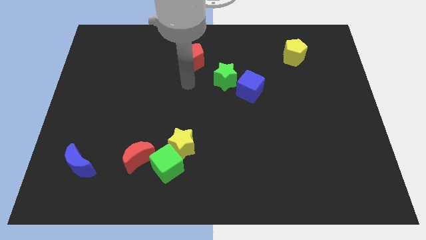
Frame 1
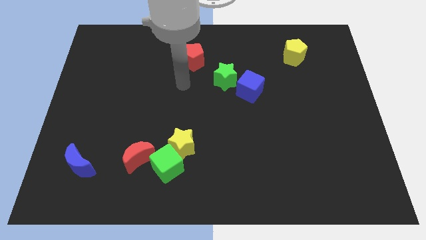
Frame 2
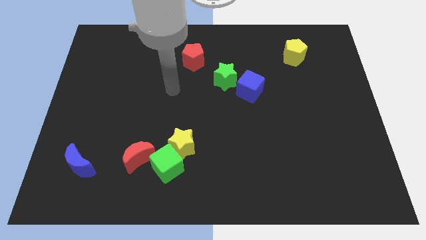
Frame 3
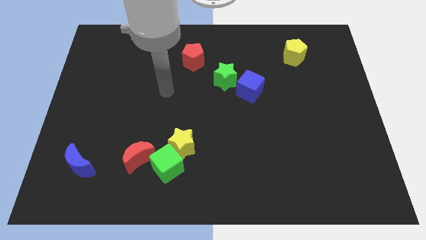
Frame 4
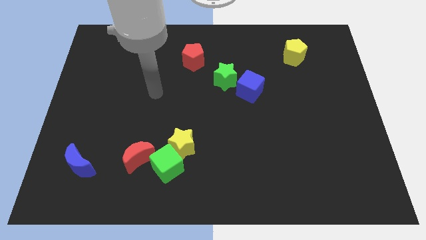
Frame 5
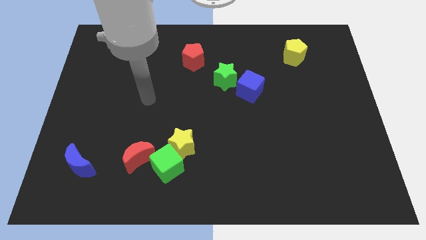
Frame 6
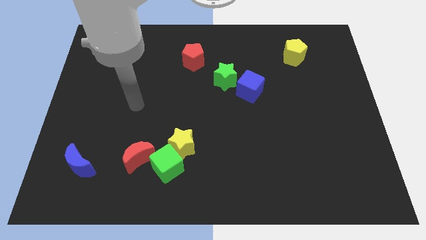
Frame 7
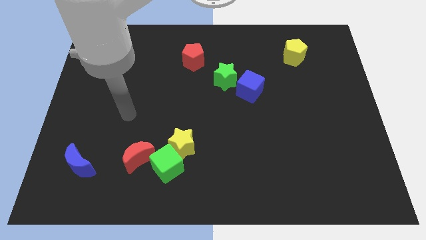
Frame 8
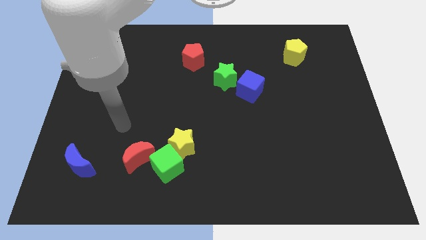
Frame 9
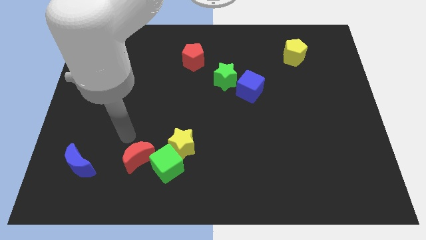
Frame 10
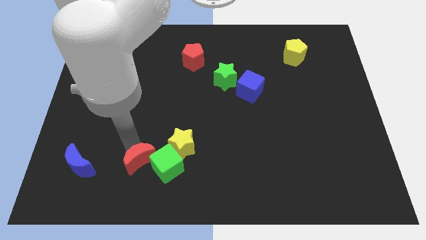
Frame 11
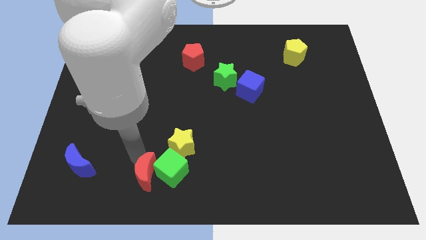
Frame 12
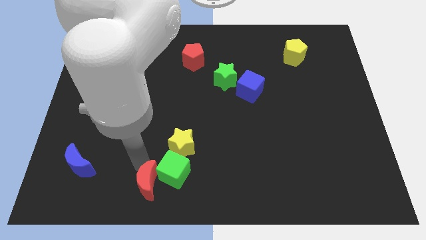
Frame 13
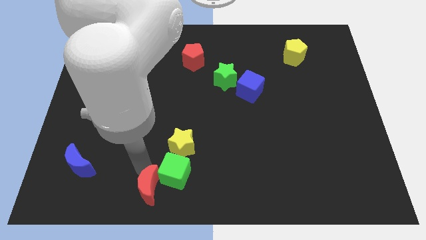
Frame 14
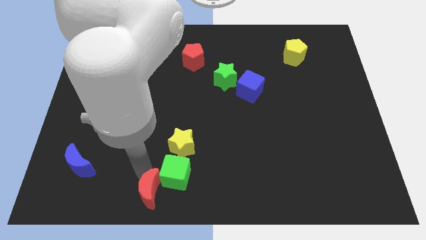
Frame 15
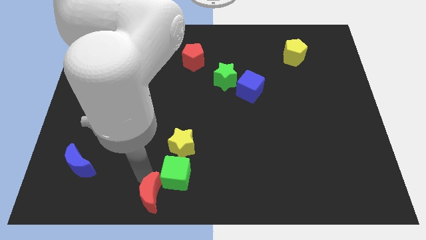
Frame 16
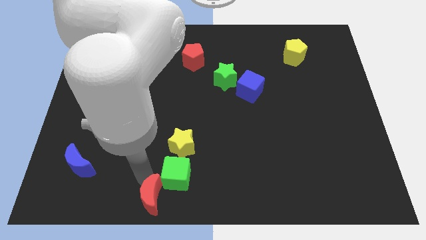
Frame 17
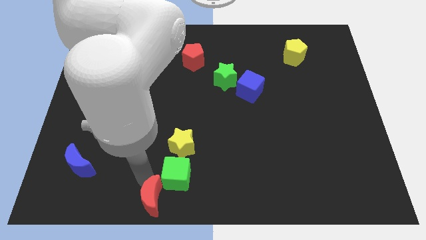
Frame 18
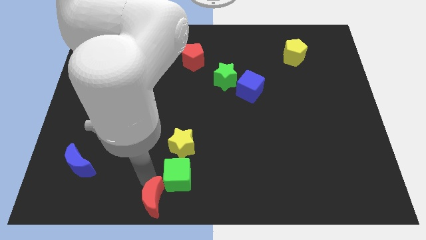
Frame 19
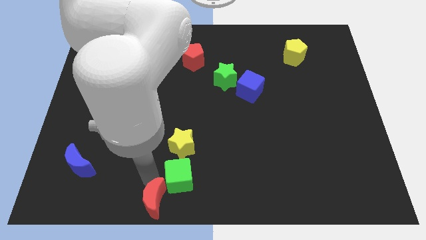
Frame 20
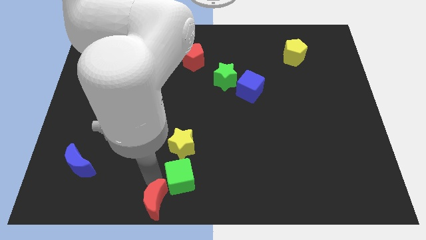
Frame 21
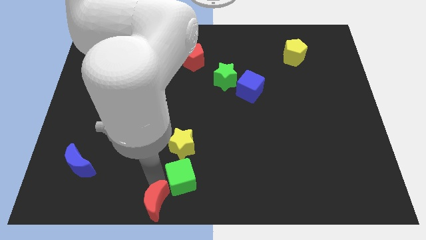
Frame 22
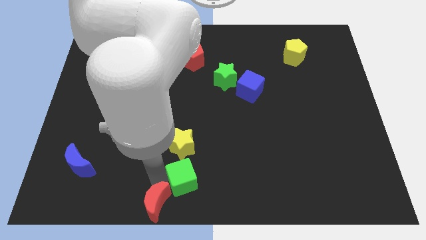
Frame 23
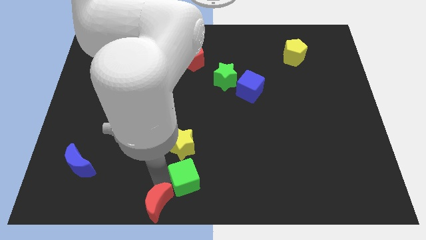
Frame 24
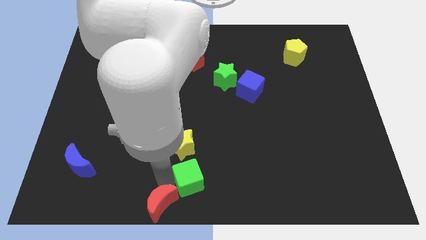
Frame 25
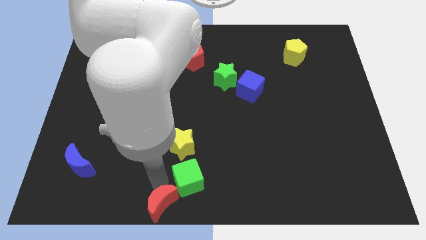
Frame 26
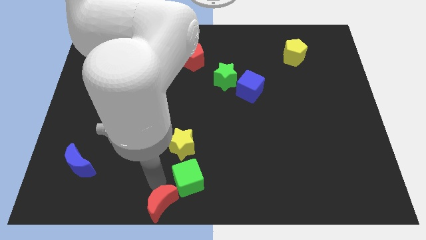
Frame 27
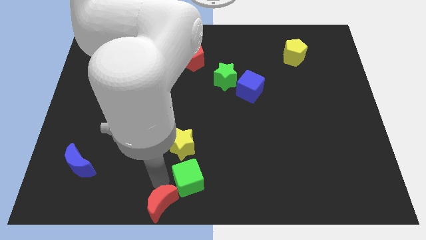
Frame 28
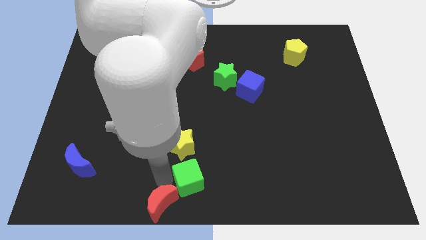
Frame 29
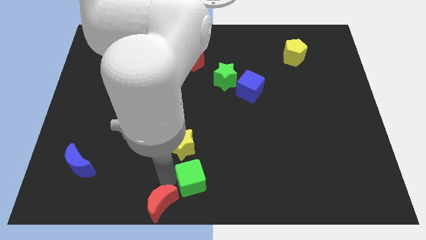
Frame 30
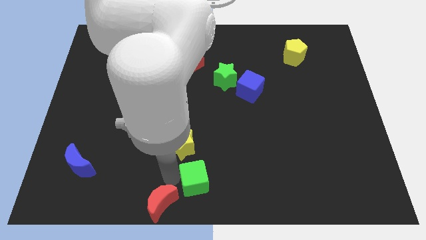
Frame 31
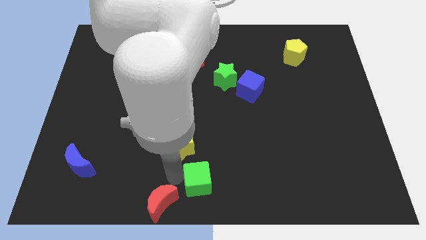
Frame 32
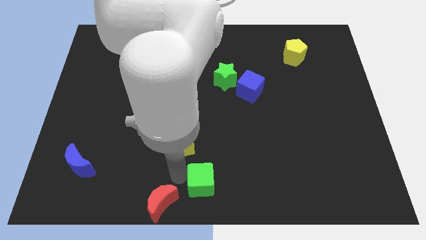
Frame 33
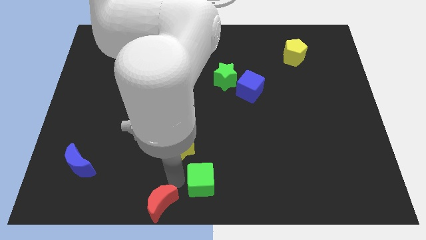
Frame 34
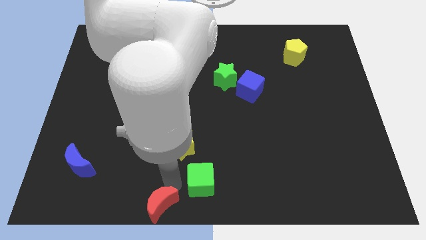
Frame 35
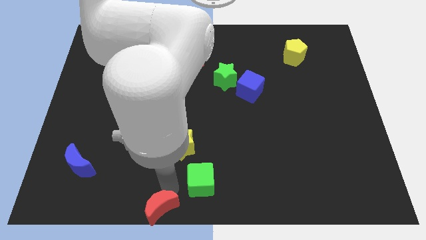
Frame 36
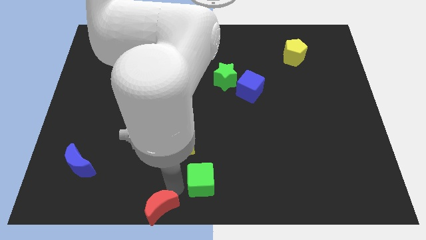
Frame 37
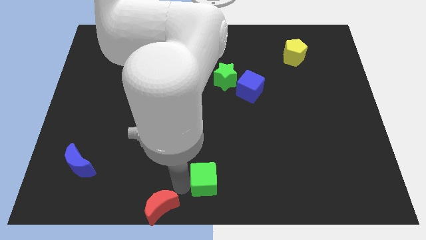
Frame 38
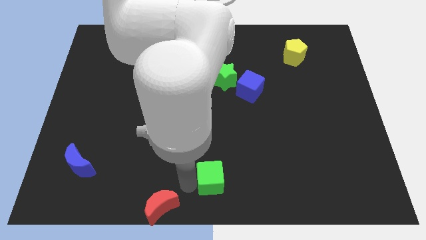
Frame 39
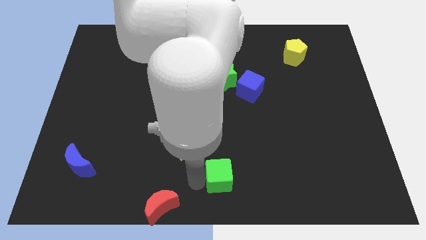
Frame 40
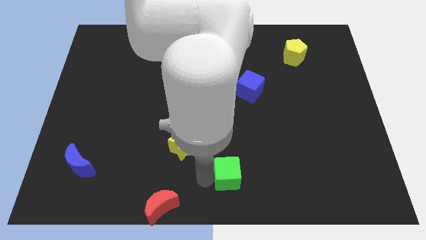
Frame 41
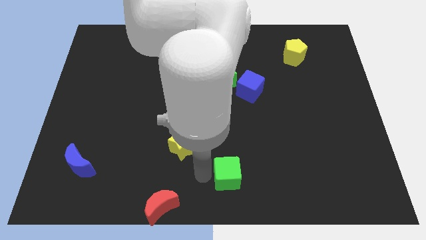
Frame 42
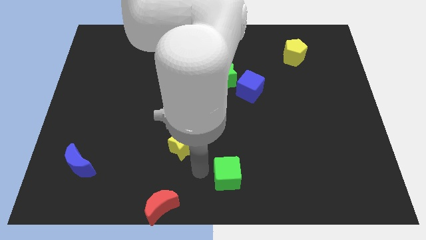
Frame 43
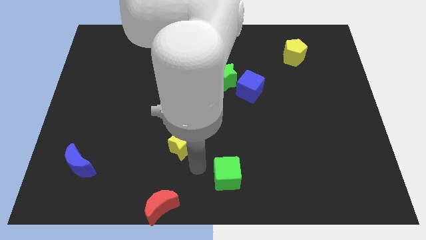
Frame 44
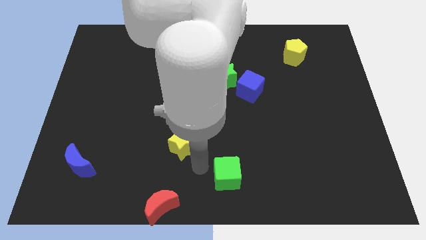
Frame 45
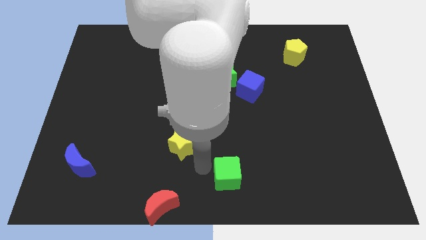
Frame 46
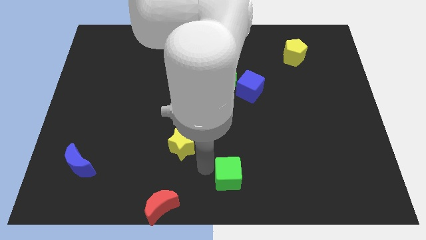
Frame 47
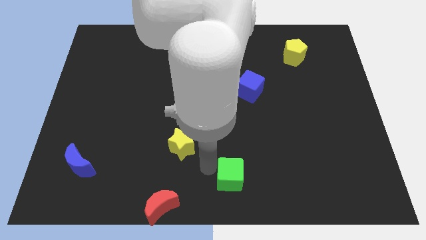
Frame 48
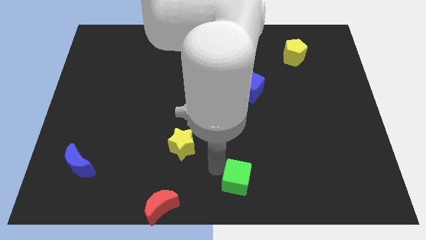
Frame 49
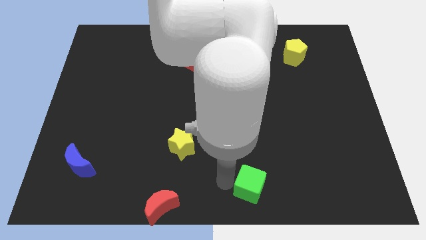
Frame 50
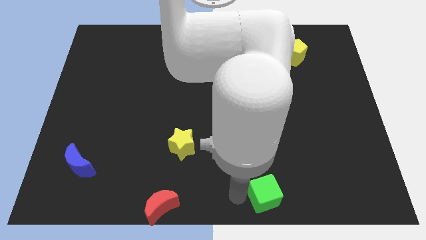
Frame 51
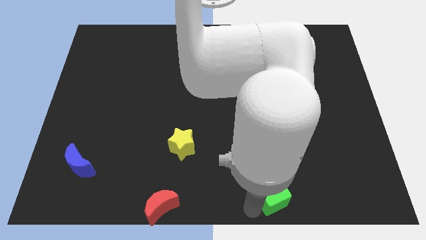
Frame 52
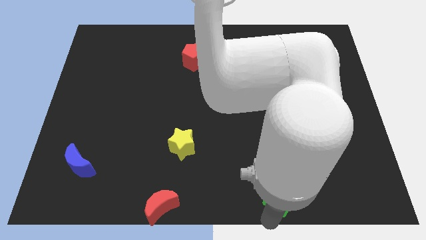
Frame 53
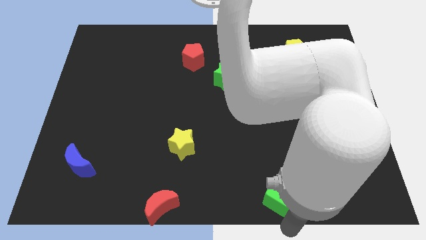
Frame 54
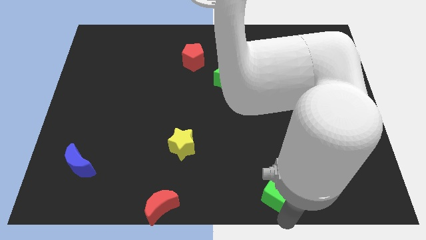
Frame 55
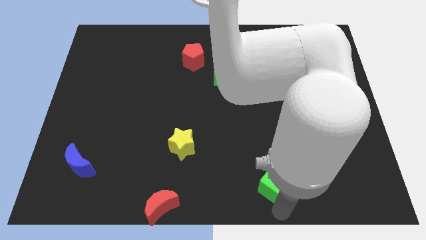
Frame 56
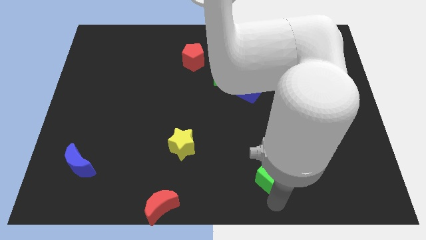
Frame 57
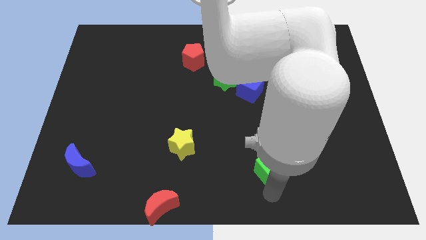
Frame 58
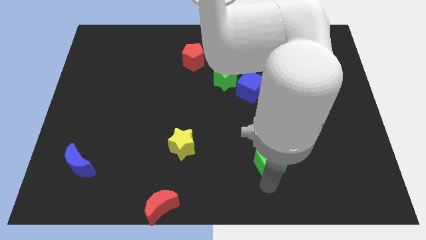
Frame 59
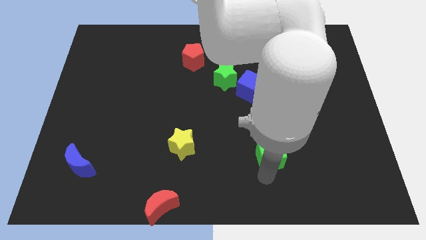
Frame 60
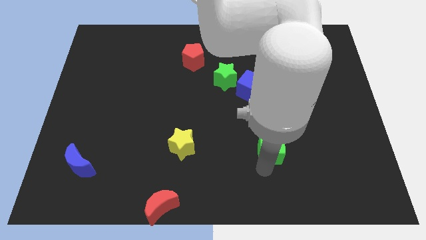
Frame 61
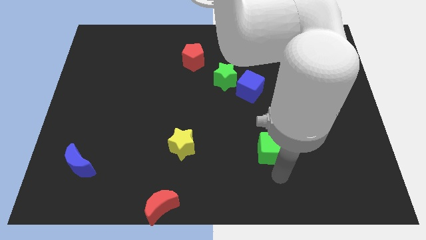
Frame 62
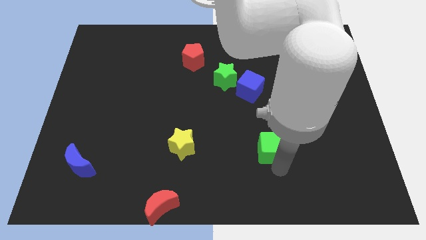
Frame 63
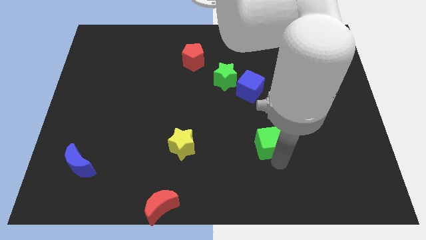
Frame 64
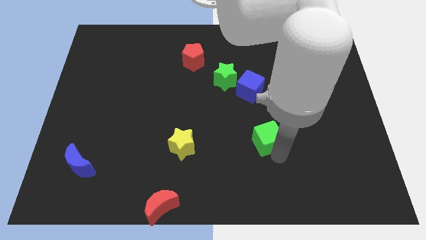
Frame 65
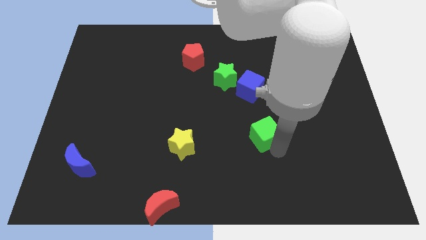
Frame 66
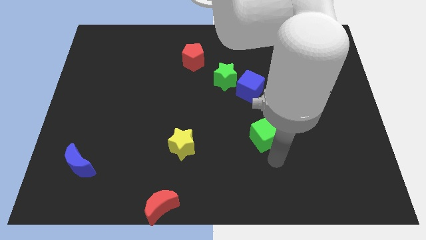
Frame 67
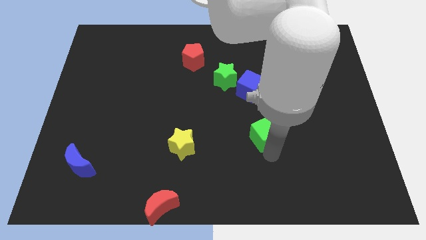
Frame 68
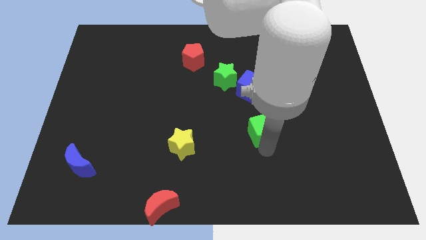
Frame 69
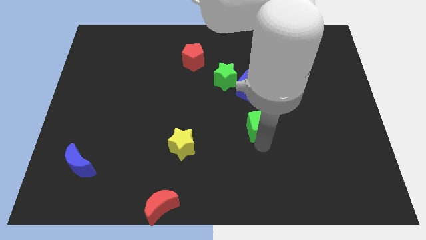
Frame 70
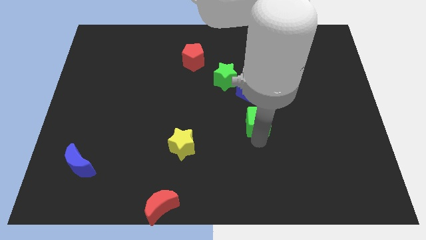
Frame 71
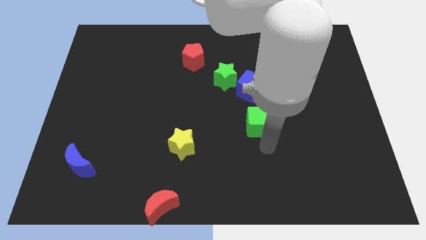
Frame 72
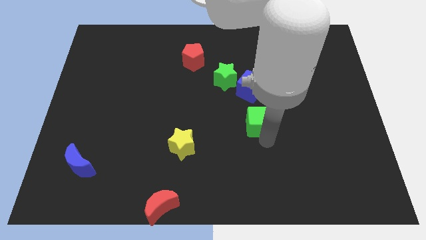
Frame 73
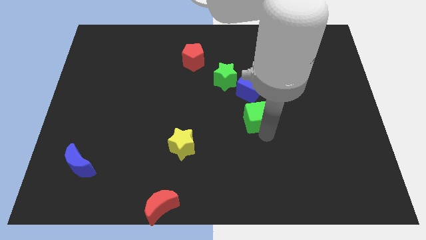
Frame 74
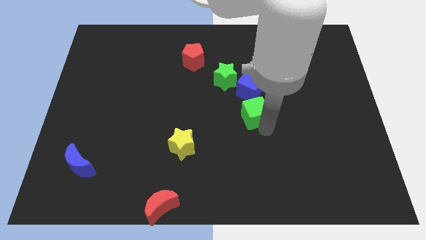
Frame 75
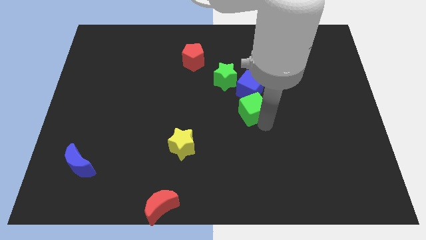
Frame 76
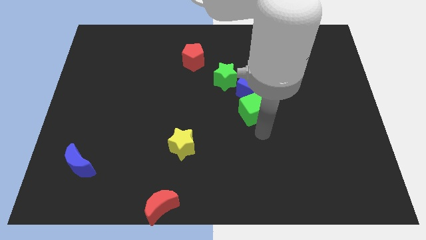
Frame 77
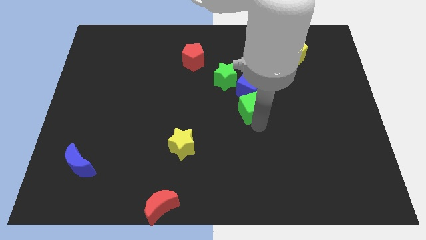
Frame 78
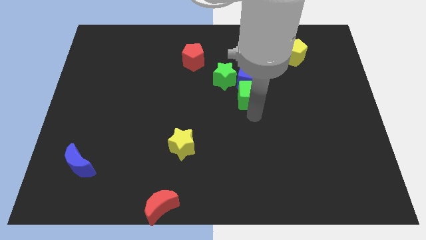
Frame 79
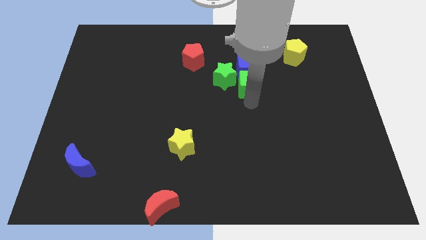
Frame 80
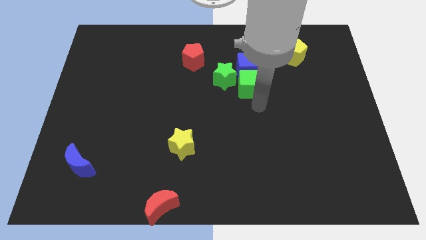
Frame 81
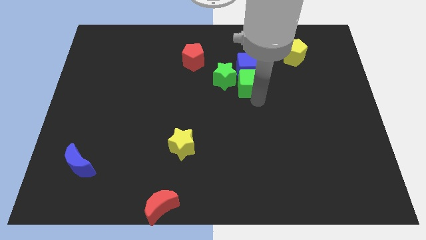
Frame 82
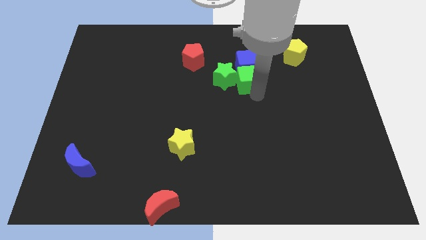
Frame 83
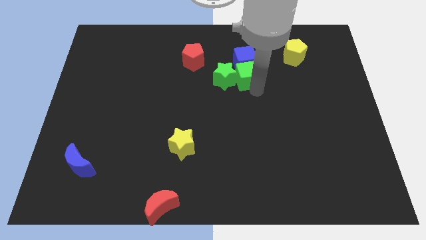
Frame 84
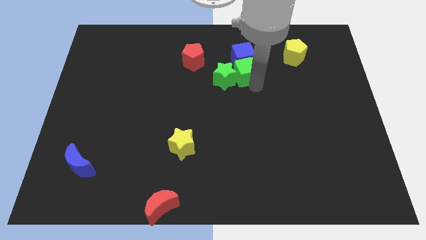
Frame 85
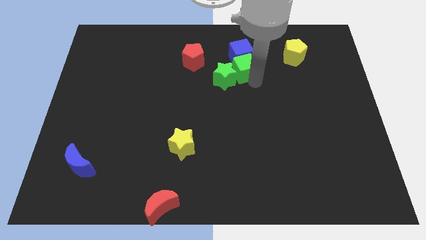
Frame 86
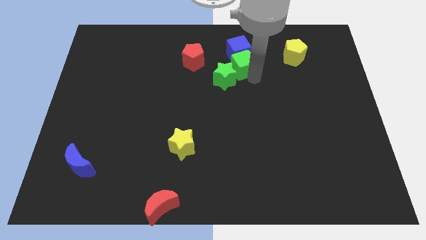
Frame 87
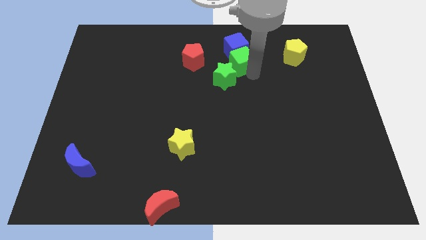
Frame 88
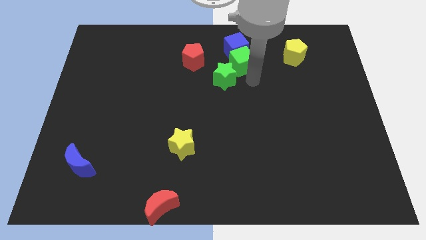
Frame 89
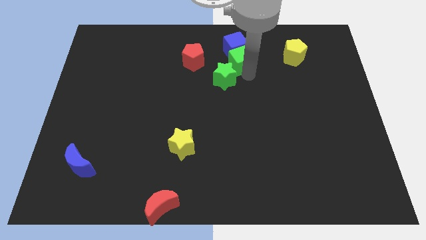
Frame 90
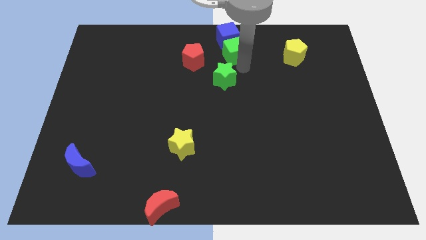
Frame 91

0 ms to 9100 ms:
move the green cube to the top side
